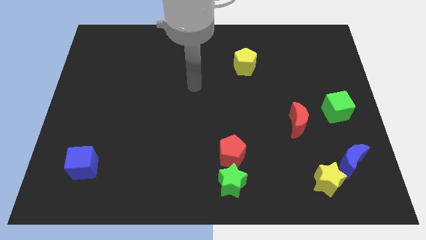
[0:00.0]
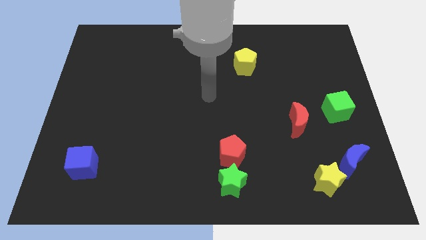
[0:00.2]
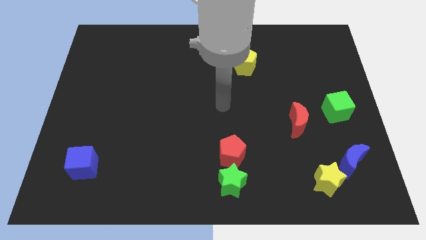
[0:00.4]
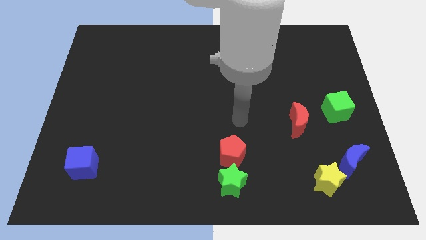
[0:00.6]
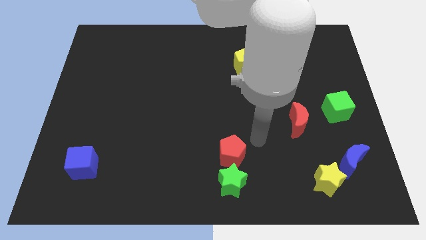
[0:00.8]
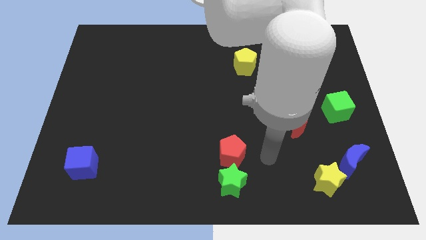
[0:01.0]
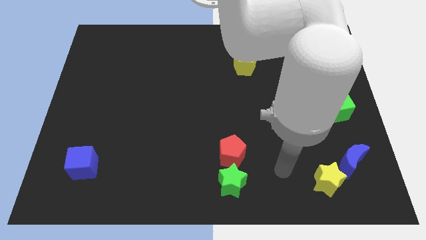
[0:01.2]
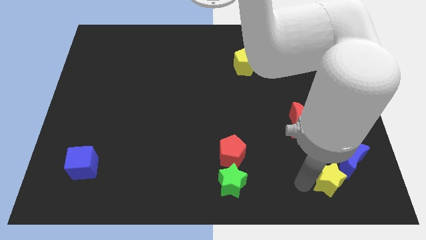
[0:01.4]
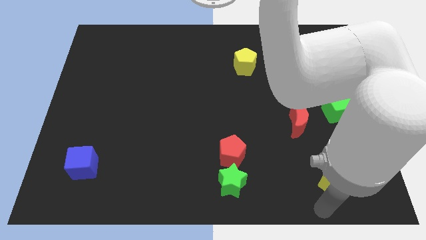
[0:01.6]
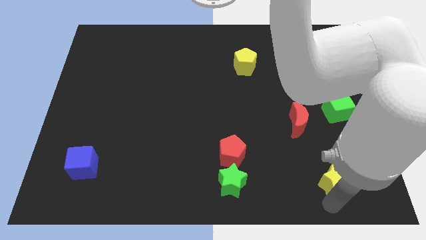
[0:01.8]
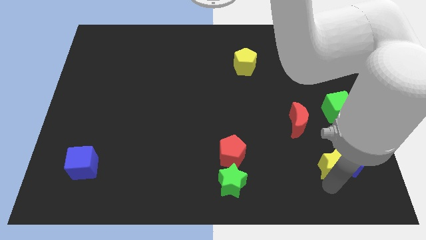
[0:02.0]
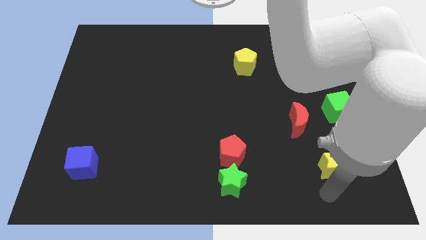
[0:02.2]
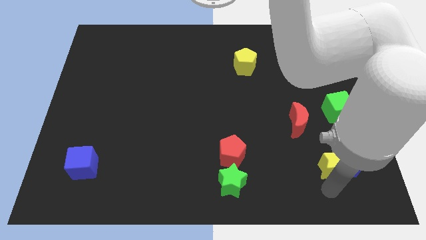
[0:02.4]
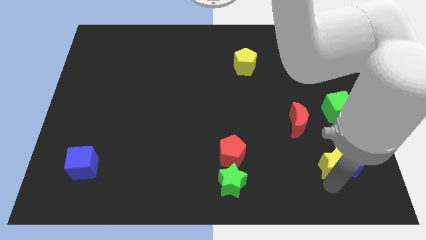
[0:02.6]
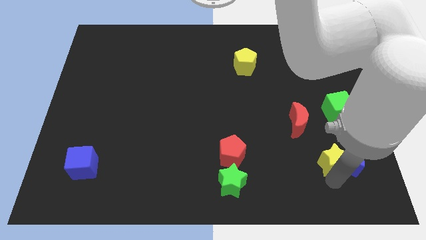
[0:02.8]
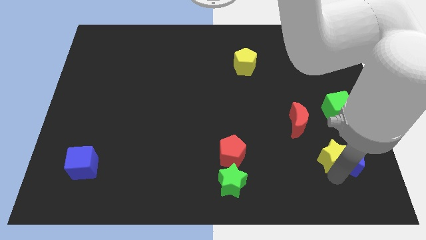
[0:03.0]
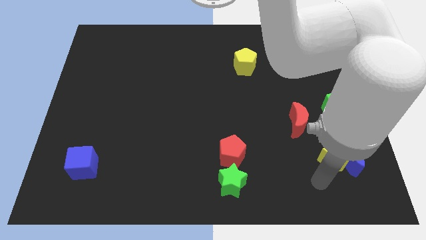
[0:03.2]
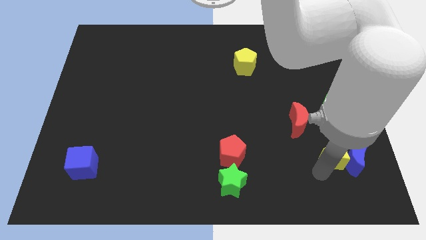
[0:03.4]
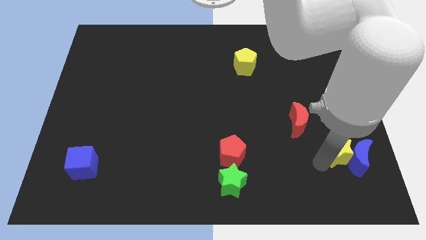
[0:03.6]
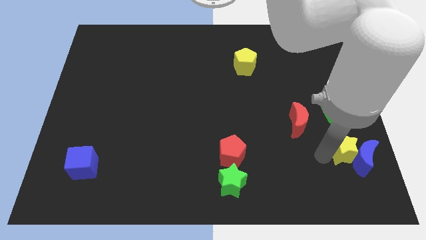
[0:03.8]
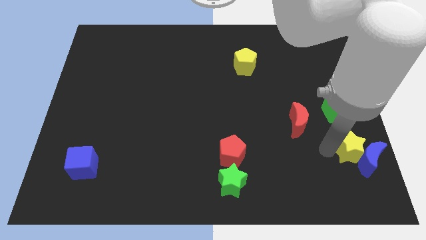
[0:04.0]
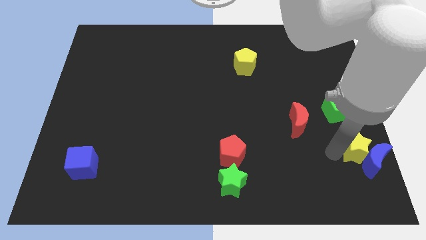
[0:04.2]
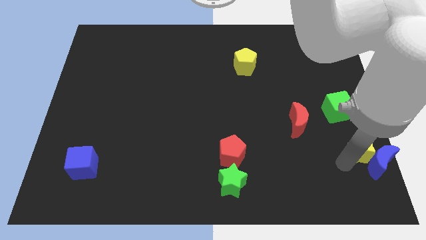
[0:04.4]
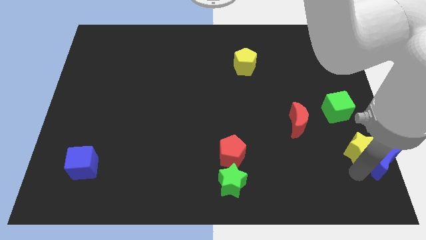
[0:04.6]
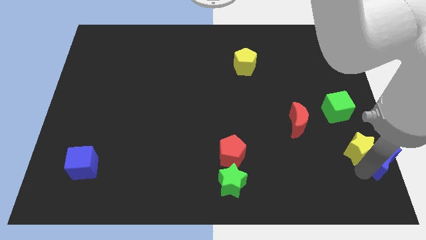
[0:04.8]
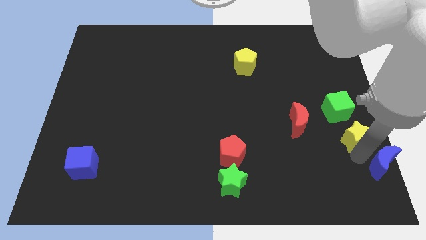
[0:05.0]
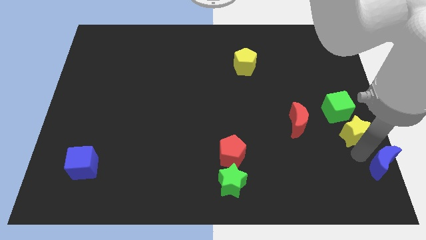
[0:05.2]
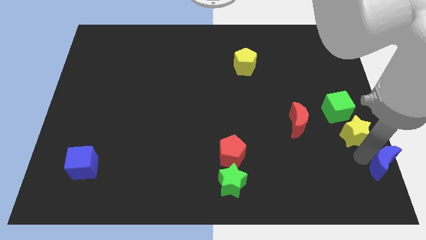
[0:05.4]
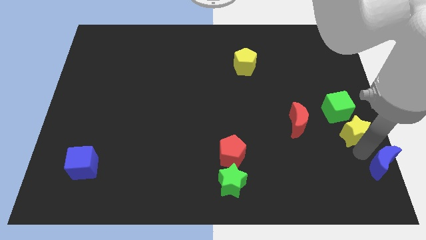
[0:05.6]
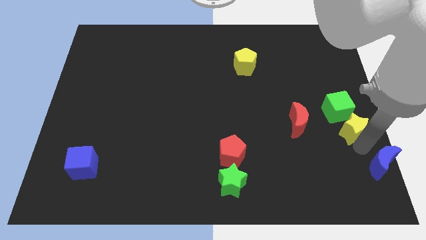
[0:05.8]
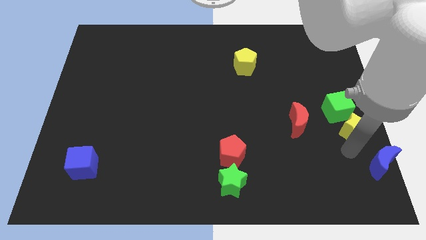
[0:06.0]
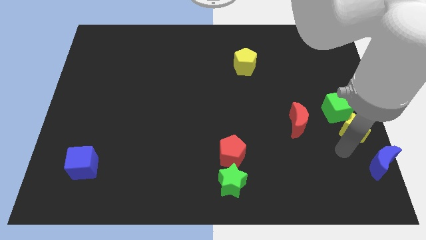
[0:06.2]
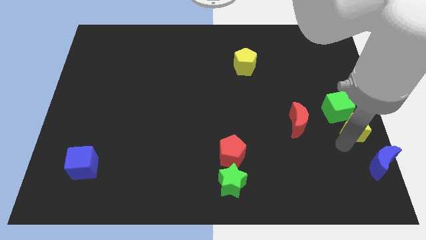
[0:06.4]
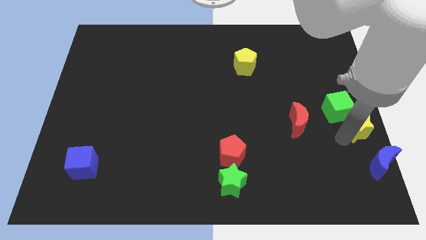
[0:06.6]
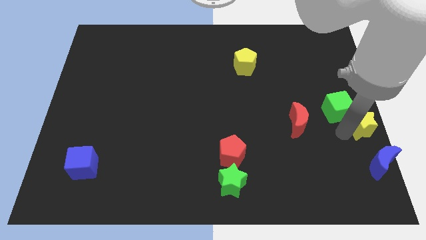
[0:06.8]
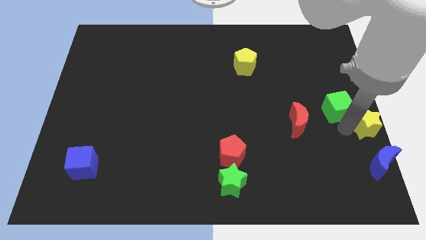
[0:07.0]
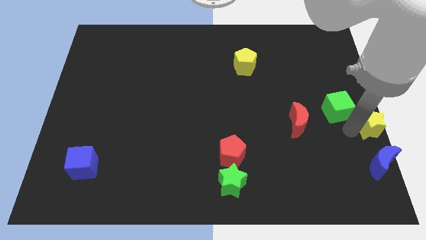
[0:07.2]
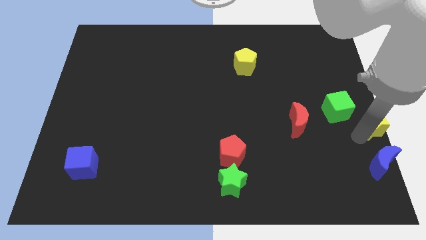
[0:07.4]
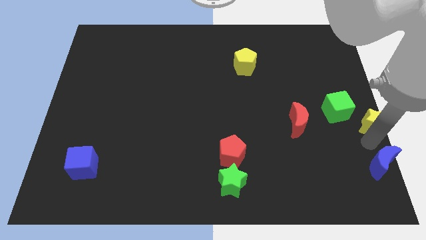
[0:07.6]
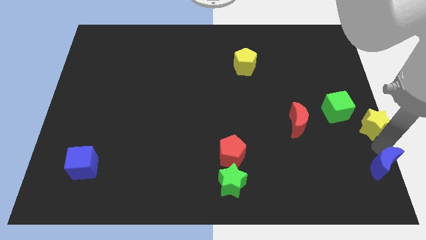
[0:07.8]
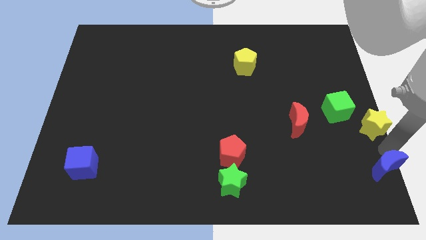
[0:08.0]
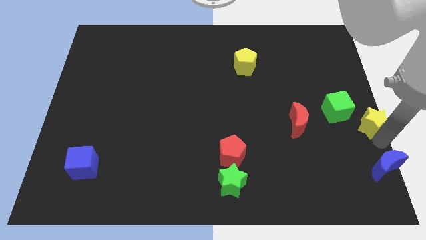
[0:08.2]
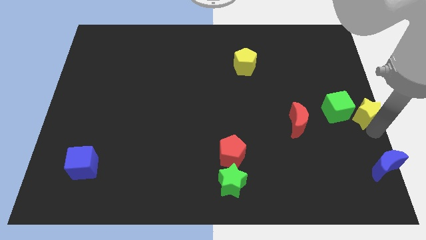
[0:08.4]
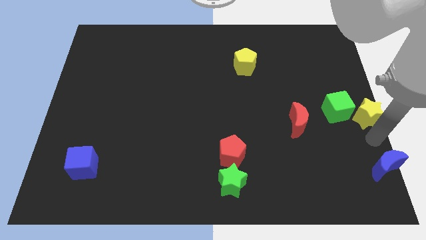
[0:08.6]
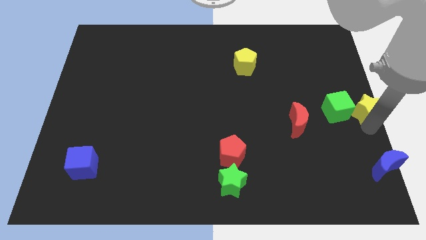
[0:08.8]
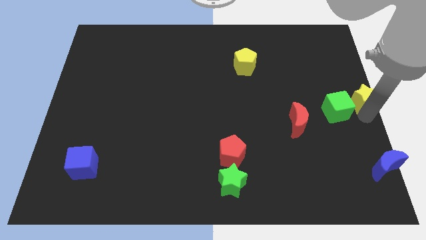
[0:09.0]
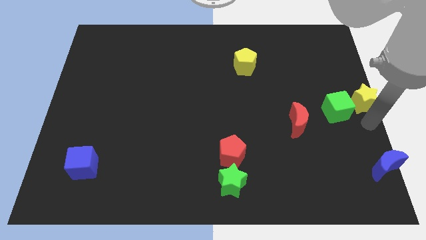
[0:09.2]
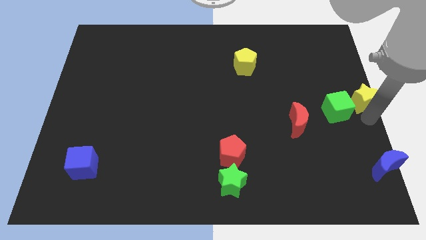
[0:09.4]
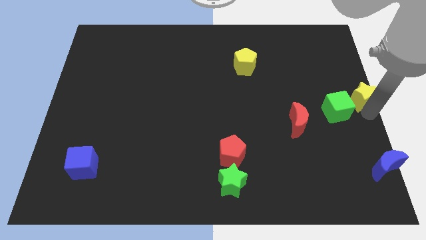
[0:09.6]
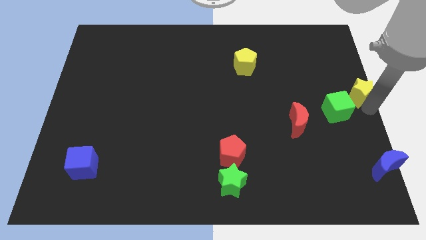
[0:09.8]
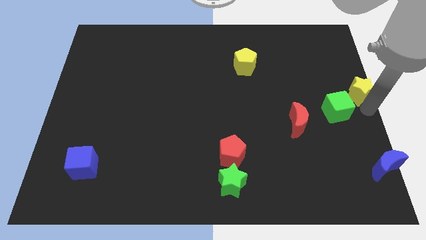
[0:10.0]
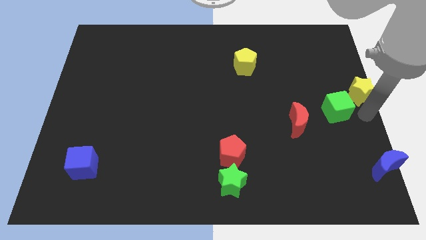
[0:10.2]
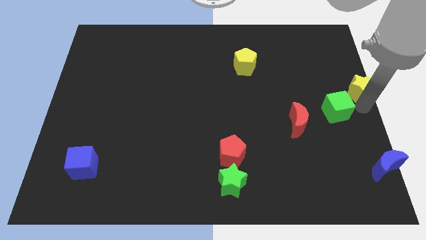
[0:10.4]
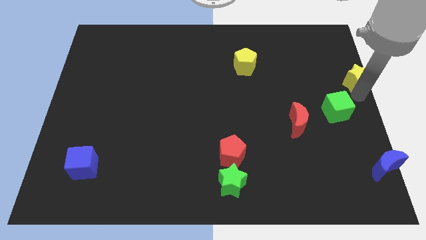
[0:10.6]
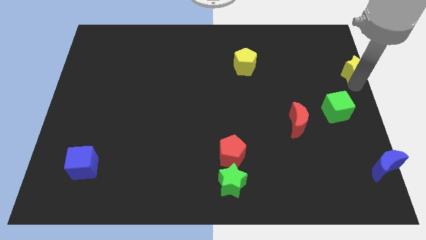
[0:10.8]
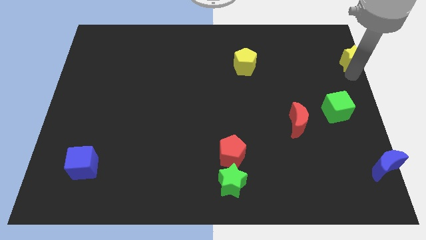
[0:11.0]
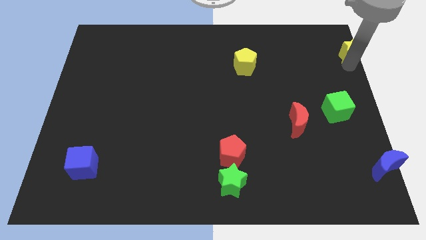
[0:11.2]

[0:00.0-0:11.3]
put the yellow star to the top right

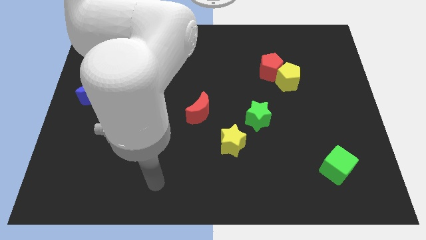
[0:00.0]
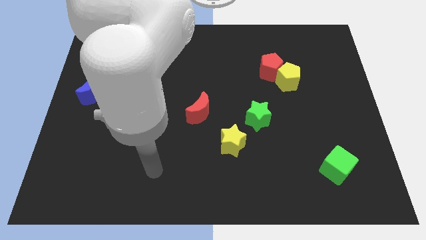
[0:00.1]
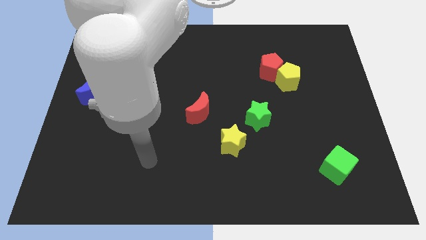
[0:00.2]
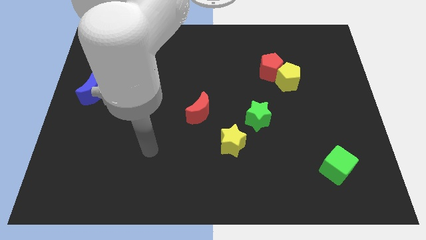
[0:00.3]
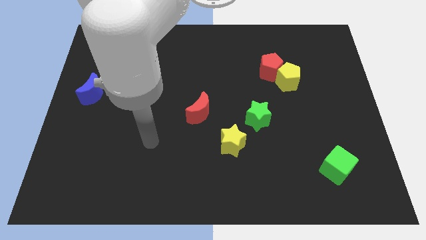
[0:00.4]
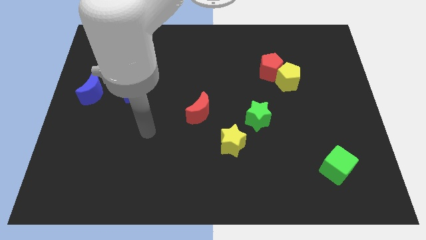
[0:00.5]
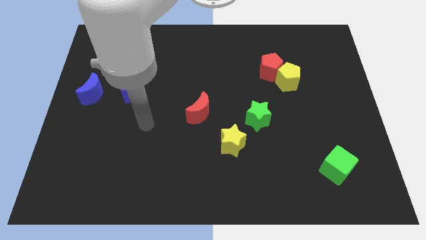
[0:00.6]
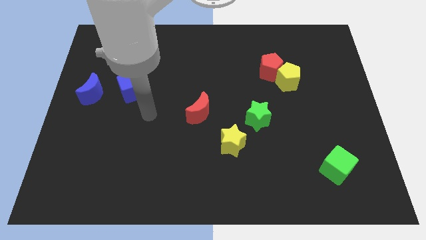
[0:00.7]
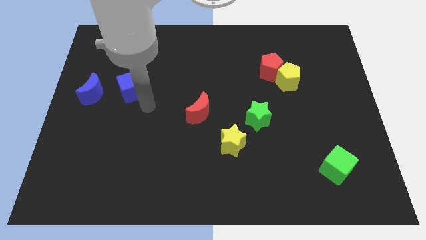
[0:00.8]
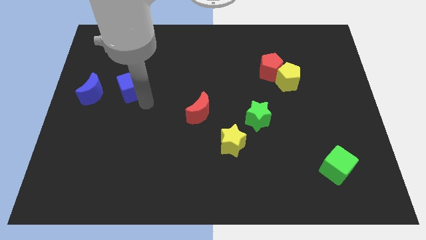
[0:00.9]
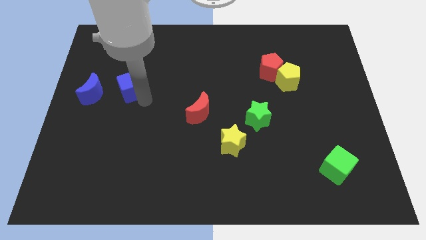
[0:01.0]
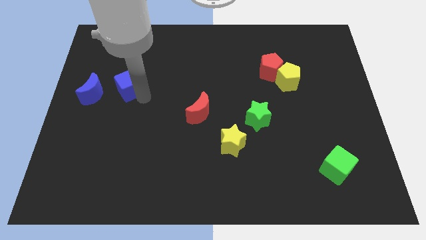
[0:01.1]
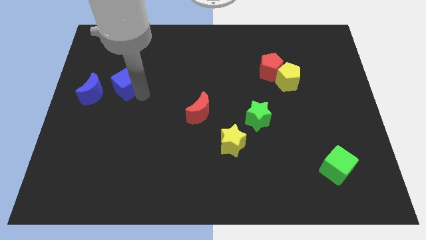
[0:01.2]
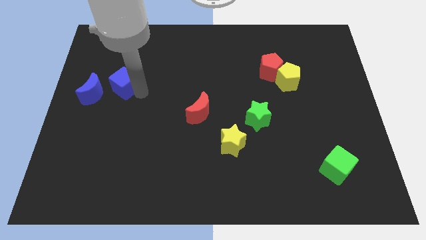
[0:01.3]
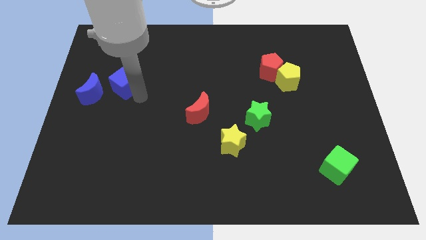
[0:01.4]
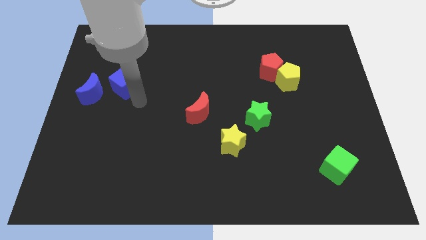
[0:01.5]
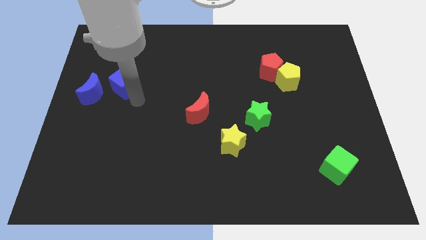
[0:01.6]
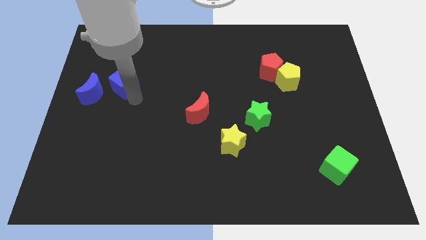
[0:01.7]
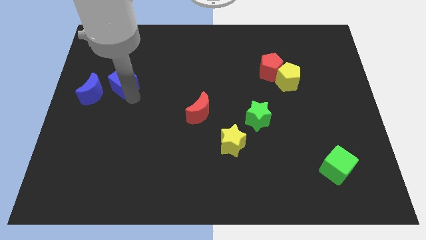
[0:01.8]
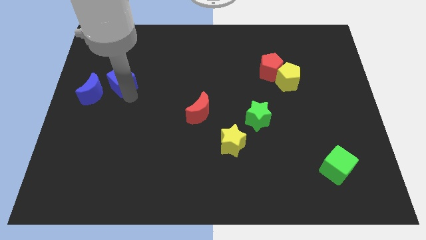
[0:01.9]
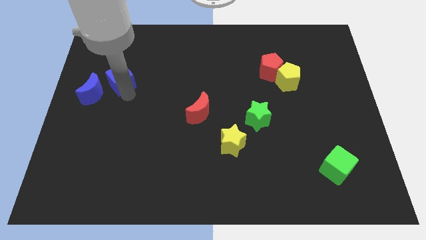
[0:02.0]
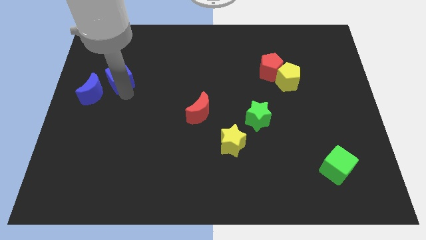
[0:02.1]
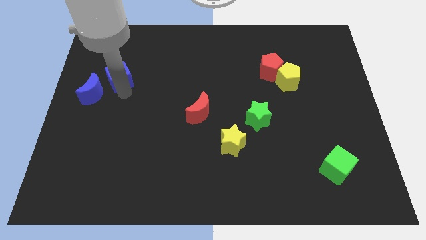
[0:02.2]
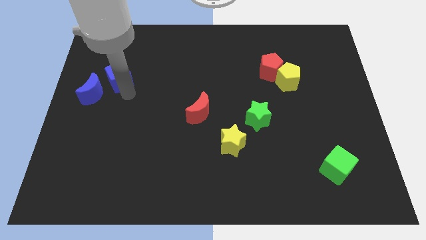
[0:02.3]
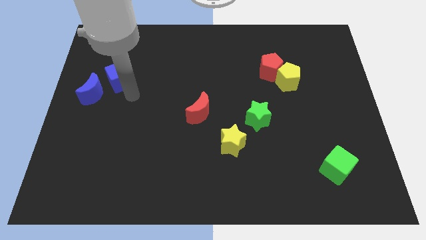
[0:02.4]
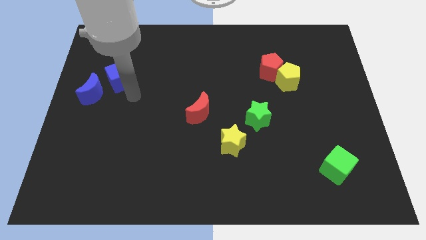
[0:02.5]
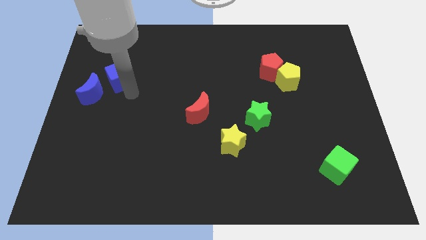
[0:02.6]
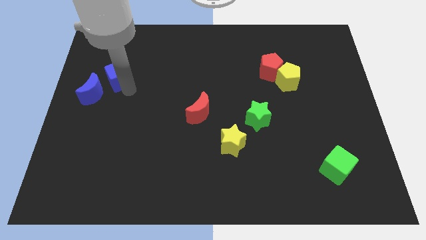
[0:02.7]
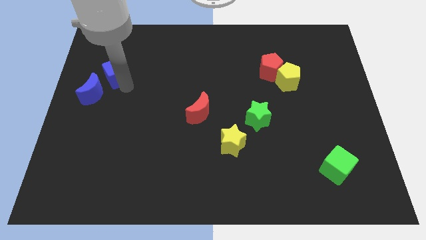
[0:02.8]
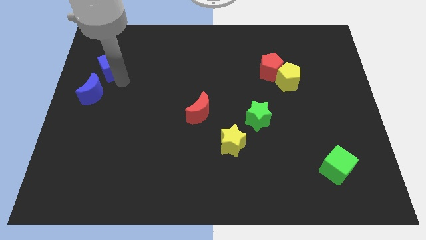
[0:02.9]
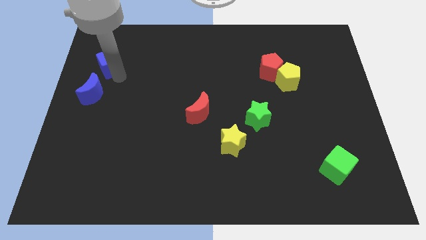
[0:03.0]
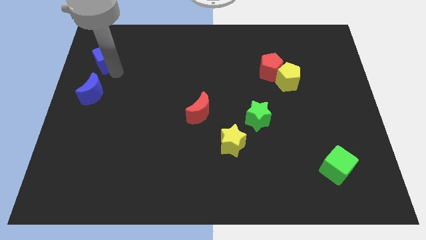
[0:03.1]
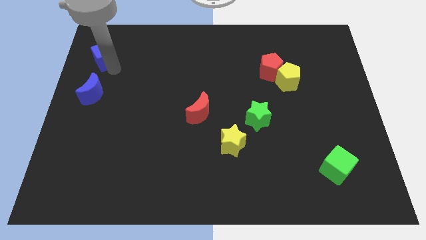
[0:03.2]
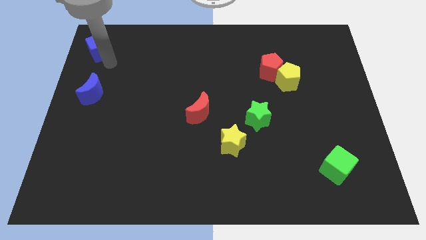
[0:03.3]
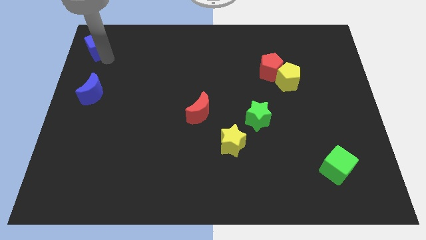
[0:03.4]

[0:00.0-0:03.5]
move the blue cube to the top left corner
